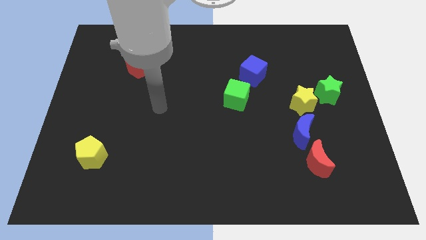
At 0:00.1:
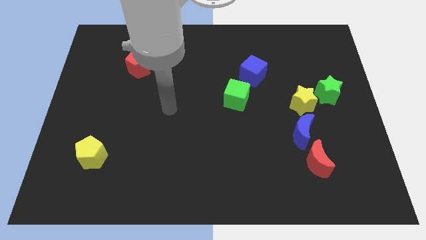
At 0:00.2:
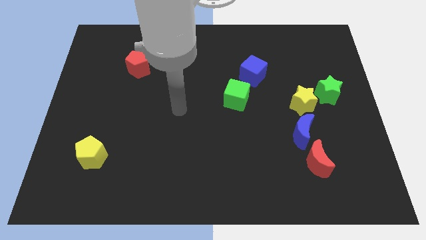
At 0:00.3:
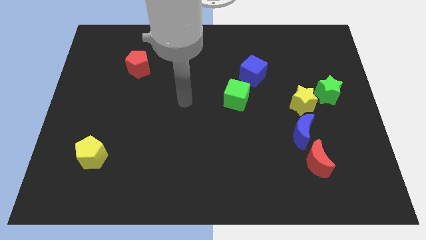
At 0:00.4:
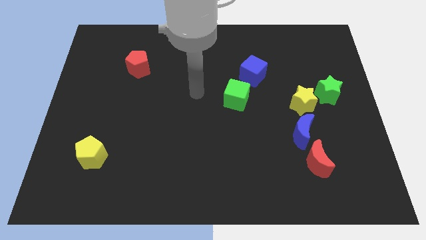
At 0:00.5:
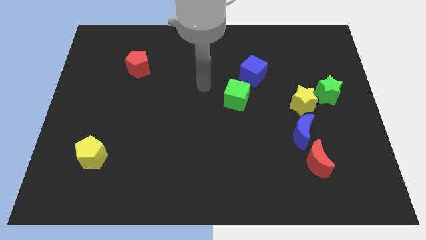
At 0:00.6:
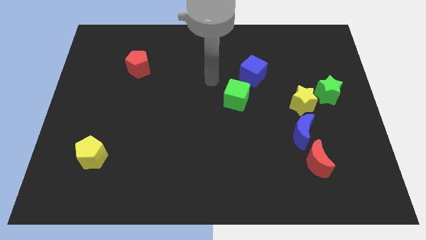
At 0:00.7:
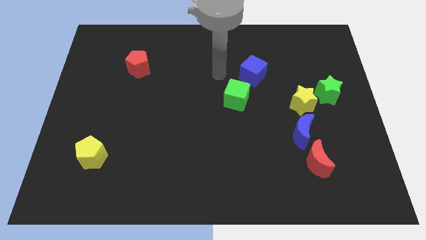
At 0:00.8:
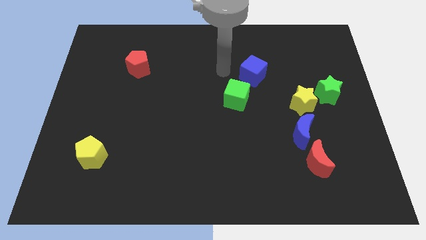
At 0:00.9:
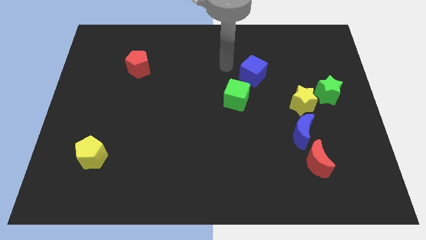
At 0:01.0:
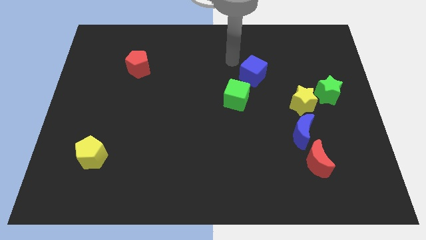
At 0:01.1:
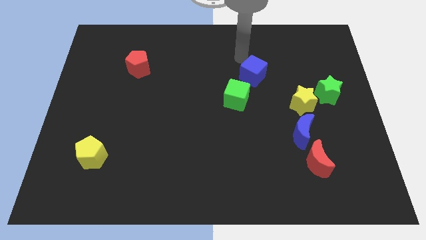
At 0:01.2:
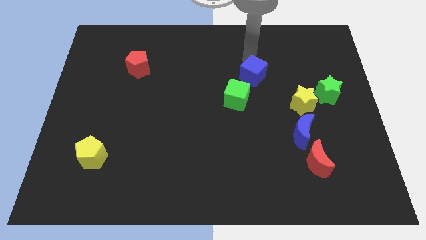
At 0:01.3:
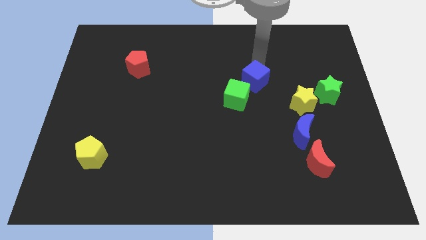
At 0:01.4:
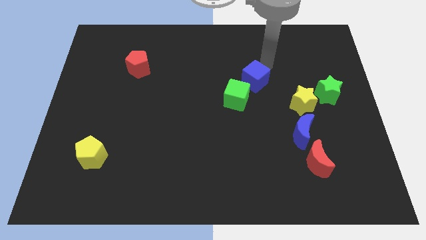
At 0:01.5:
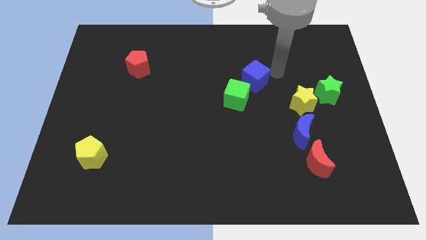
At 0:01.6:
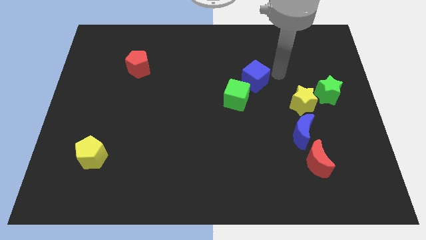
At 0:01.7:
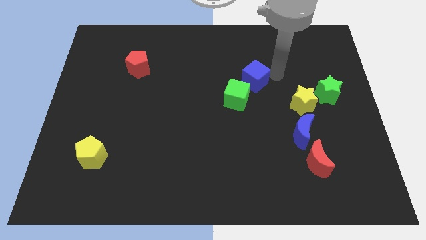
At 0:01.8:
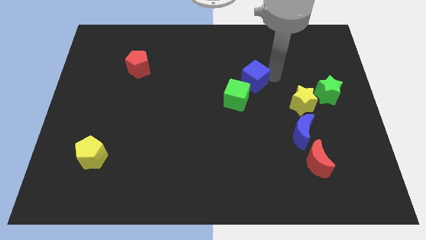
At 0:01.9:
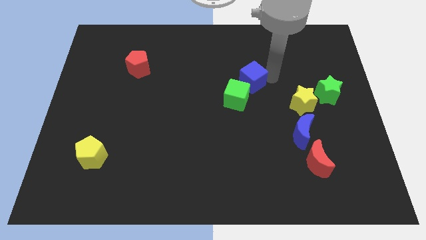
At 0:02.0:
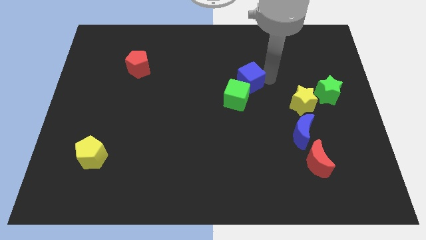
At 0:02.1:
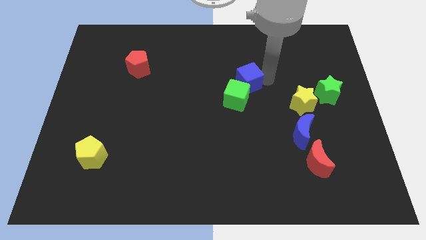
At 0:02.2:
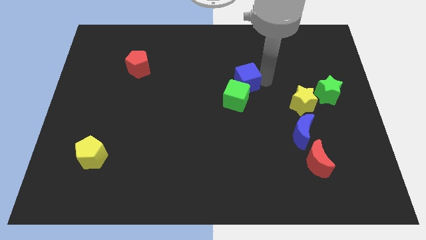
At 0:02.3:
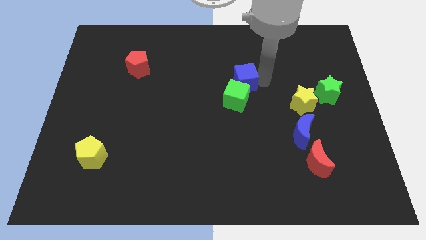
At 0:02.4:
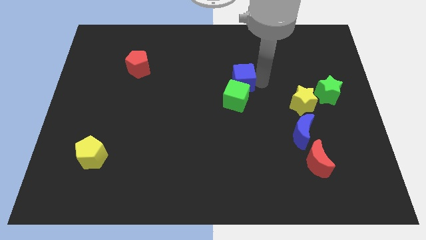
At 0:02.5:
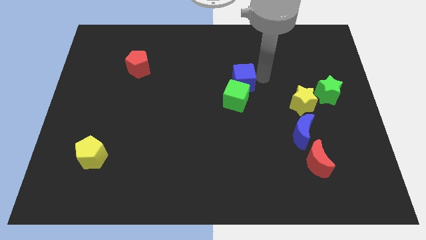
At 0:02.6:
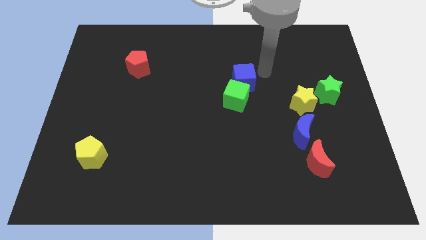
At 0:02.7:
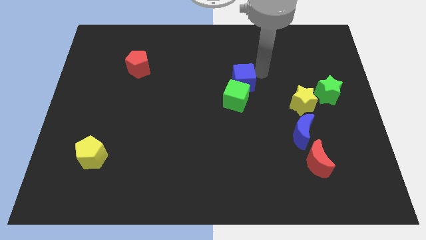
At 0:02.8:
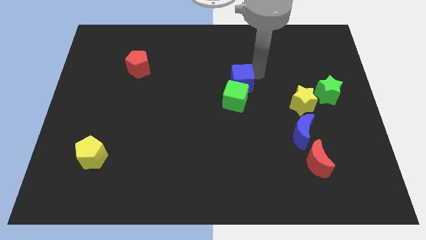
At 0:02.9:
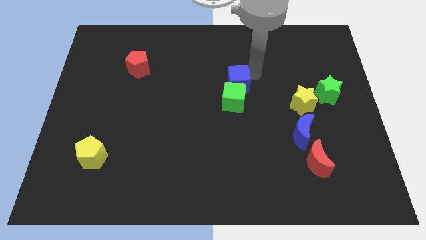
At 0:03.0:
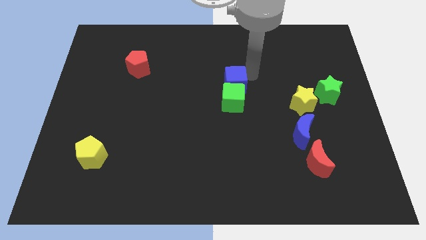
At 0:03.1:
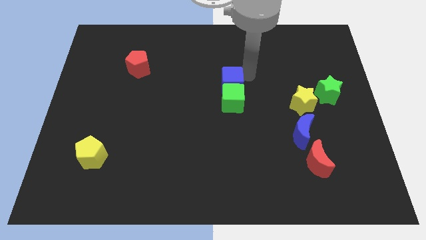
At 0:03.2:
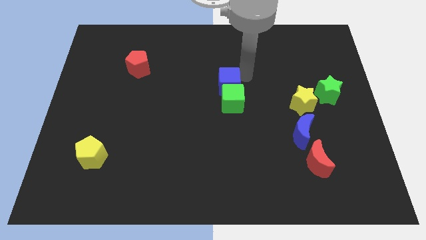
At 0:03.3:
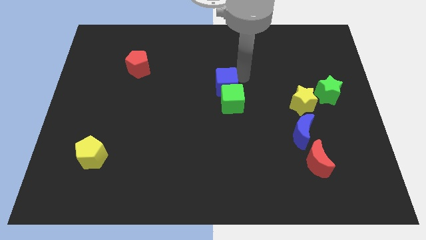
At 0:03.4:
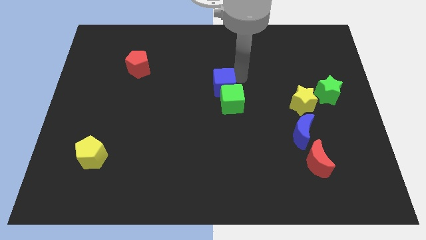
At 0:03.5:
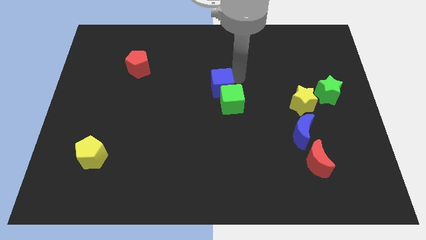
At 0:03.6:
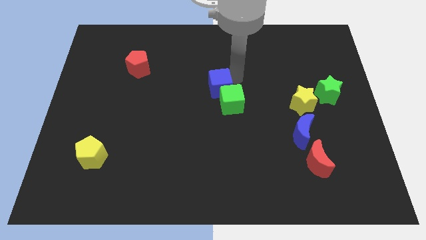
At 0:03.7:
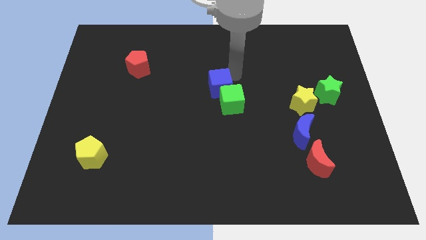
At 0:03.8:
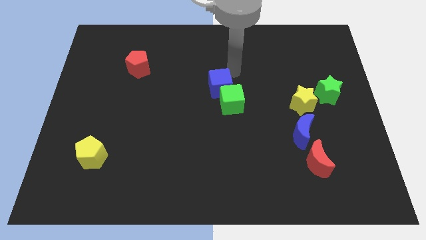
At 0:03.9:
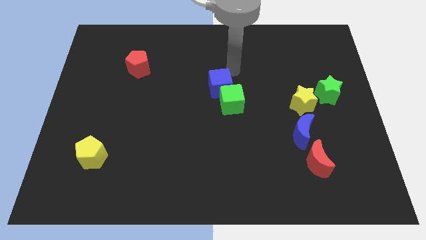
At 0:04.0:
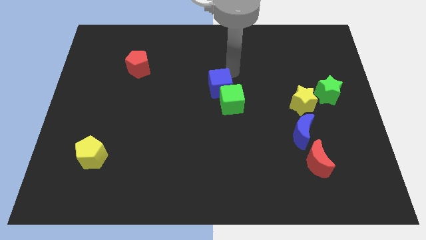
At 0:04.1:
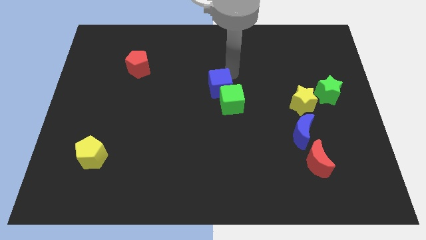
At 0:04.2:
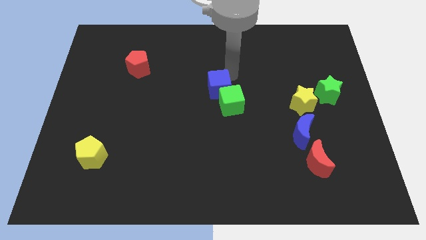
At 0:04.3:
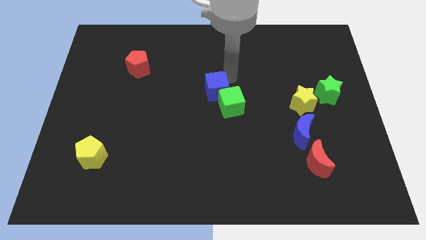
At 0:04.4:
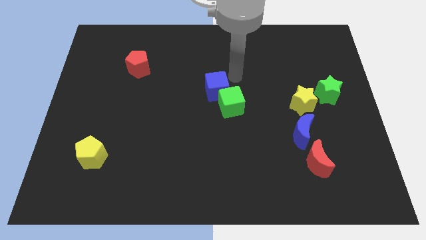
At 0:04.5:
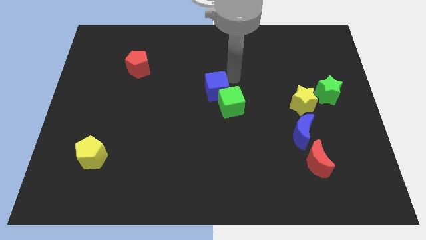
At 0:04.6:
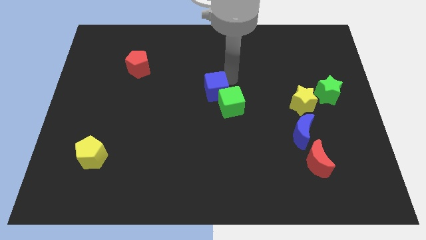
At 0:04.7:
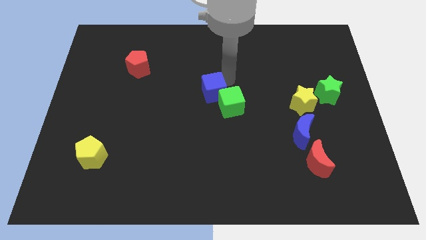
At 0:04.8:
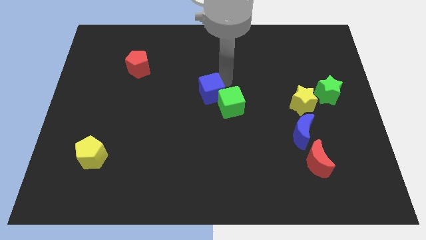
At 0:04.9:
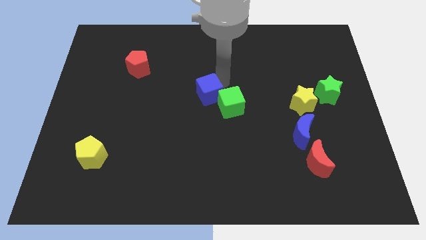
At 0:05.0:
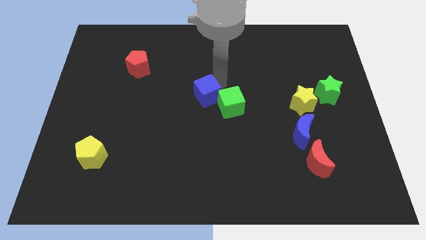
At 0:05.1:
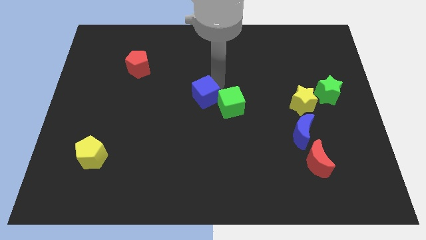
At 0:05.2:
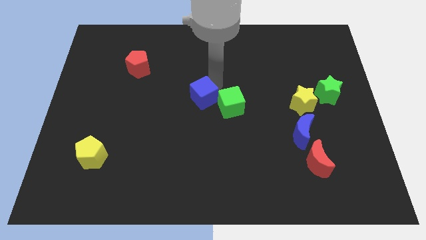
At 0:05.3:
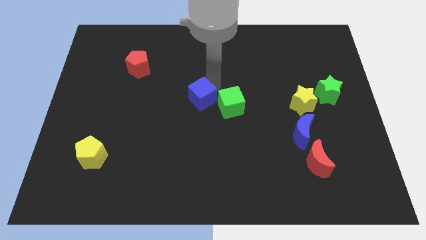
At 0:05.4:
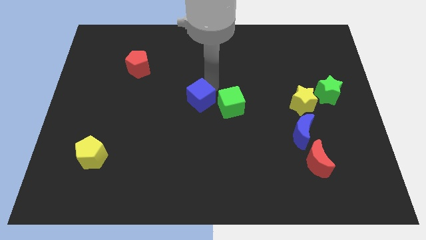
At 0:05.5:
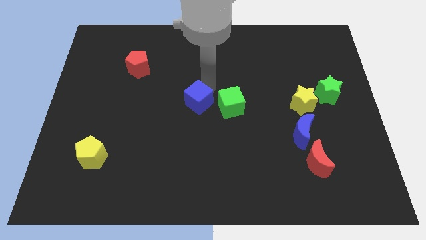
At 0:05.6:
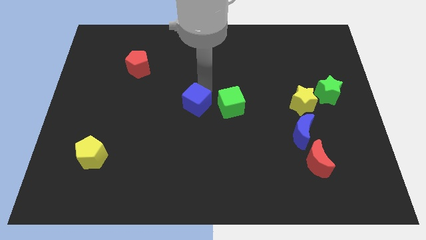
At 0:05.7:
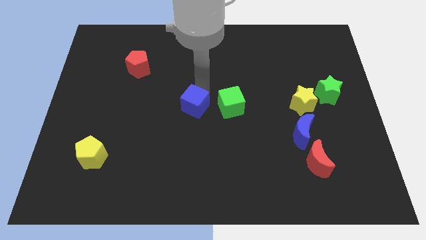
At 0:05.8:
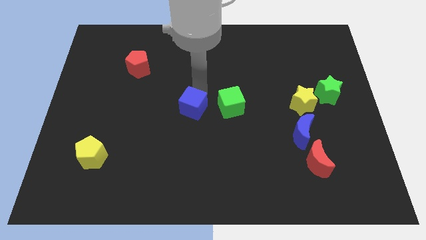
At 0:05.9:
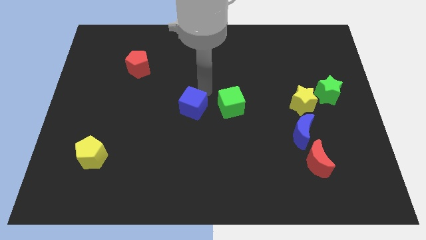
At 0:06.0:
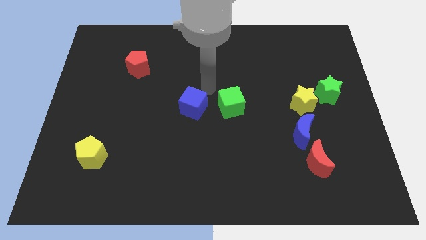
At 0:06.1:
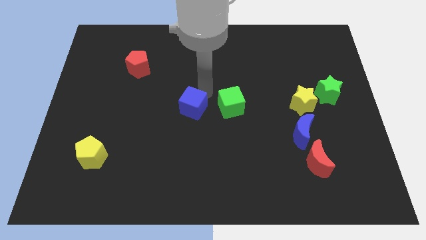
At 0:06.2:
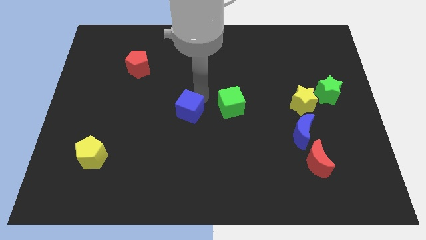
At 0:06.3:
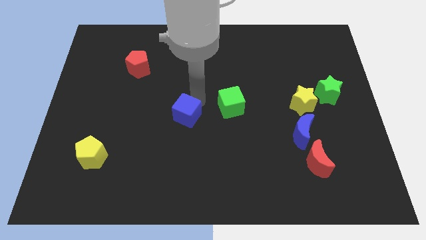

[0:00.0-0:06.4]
slide the blue cube diagonally downwards and left

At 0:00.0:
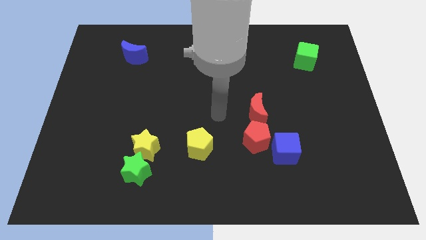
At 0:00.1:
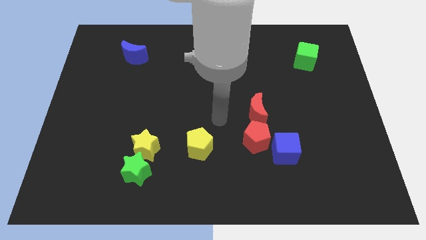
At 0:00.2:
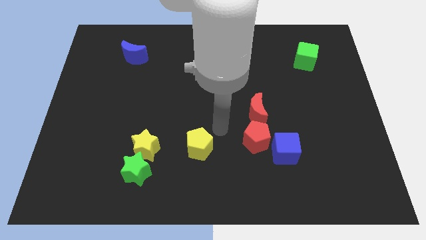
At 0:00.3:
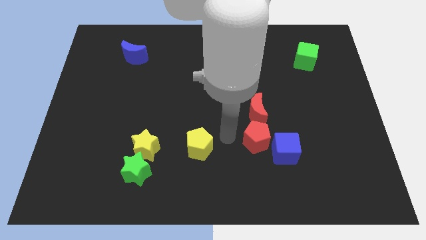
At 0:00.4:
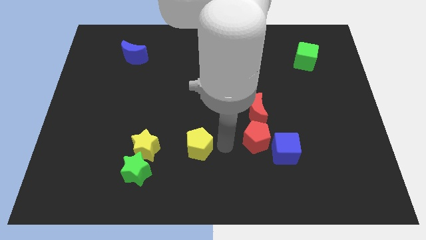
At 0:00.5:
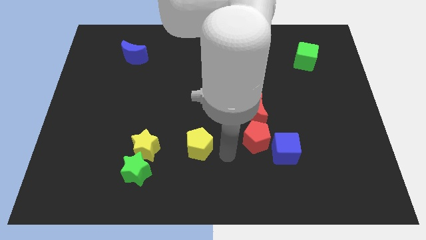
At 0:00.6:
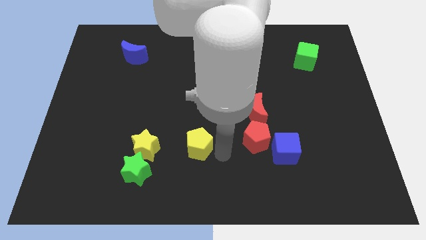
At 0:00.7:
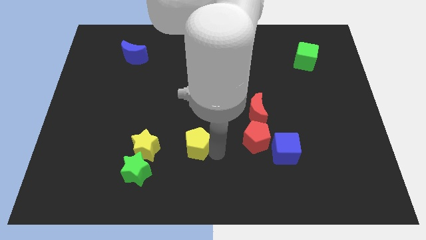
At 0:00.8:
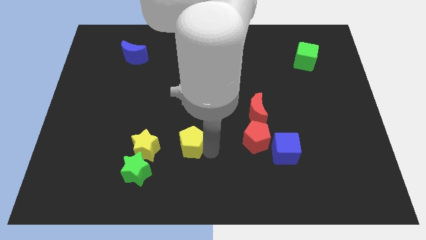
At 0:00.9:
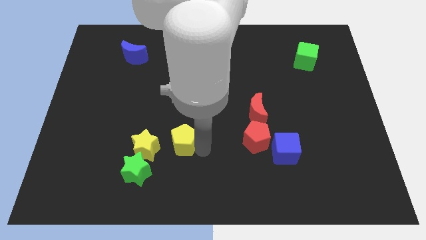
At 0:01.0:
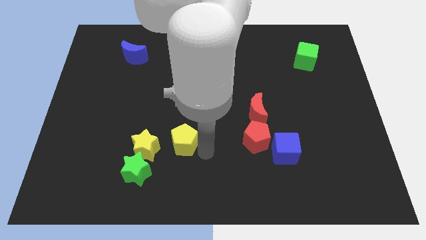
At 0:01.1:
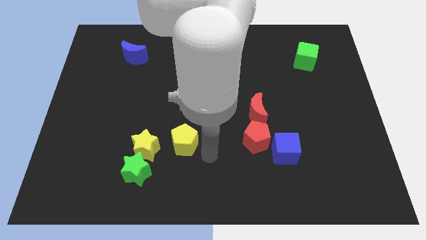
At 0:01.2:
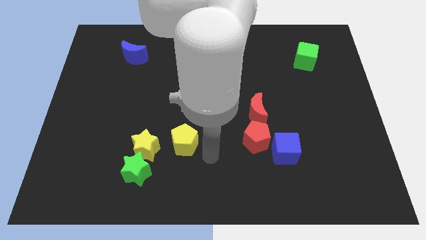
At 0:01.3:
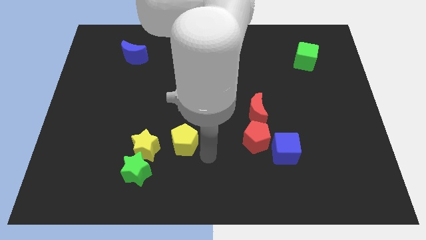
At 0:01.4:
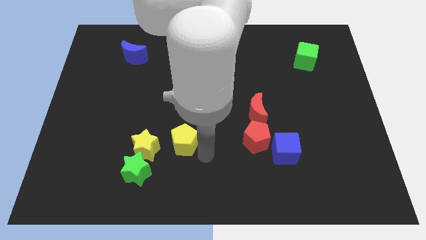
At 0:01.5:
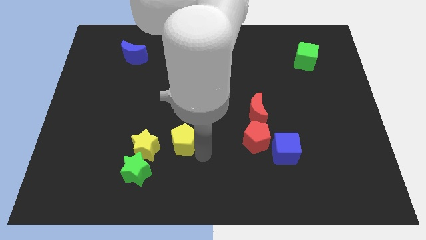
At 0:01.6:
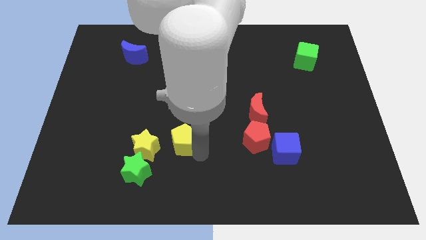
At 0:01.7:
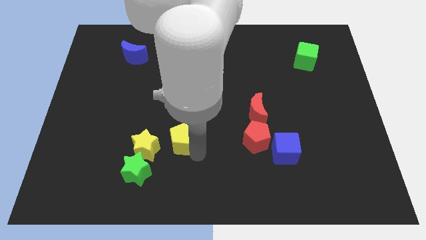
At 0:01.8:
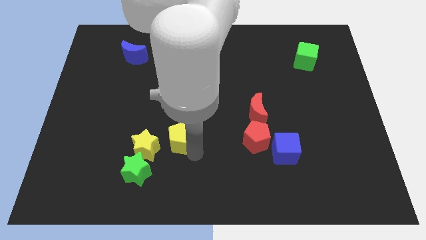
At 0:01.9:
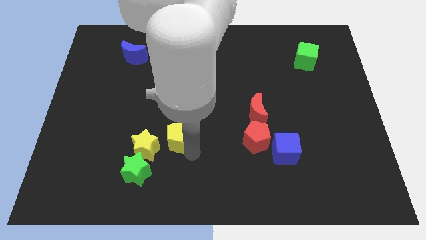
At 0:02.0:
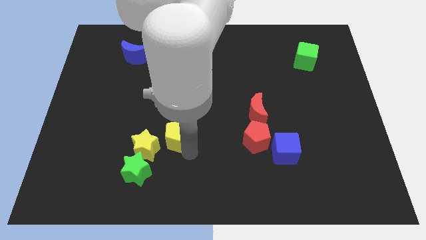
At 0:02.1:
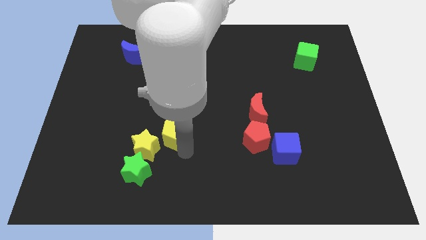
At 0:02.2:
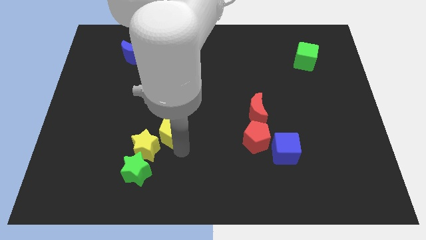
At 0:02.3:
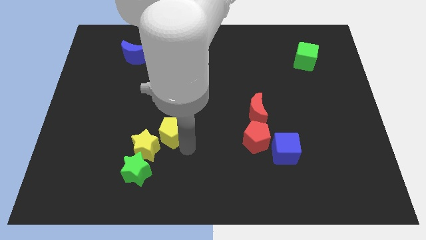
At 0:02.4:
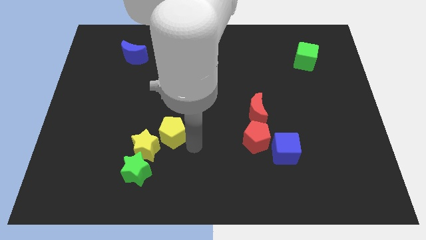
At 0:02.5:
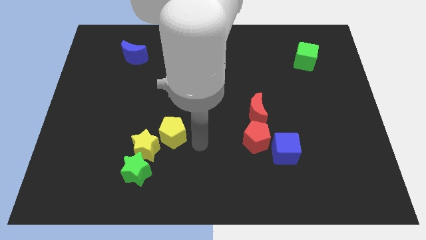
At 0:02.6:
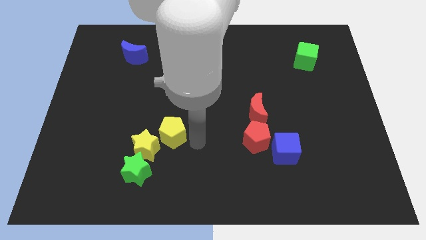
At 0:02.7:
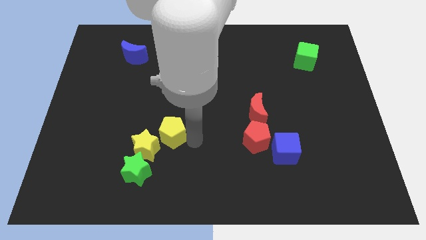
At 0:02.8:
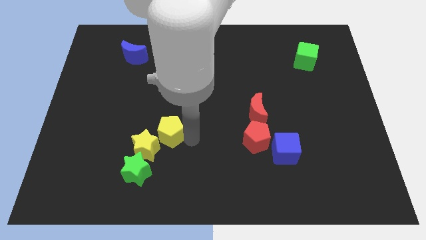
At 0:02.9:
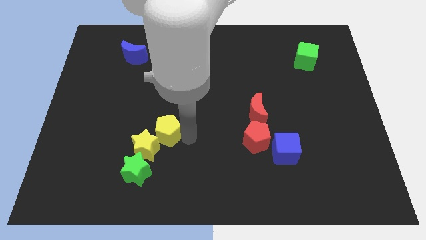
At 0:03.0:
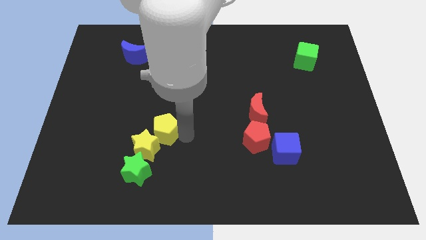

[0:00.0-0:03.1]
move the yellow pentagon a little left
